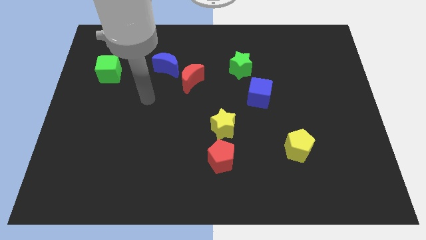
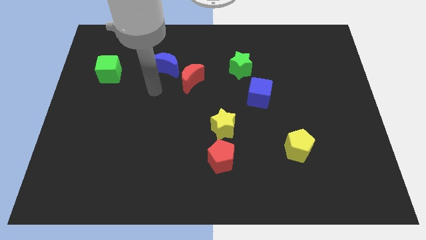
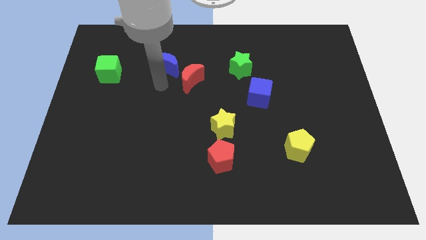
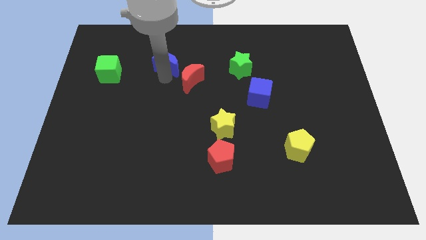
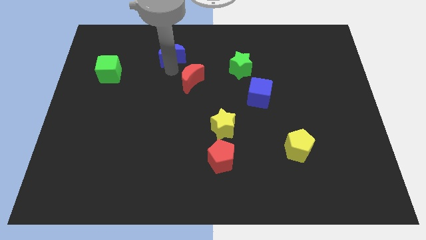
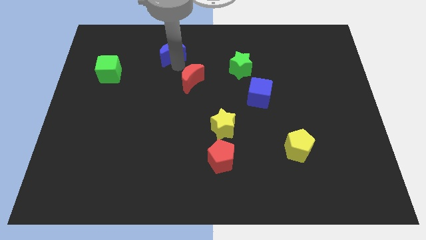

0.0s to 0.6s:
pull the red moon apart from the blue moon

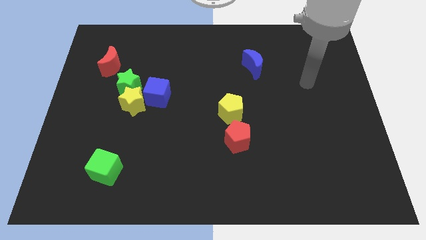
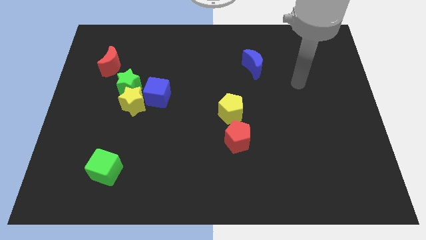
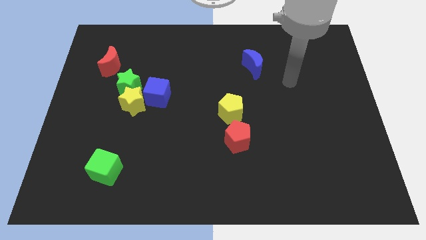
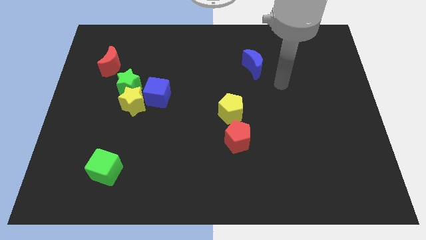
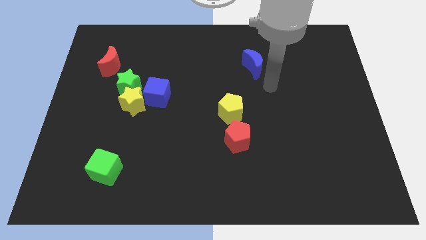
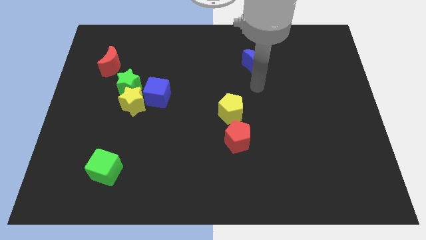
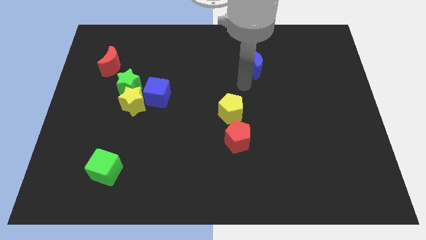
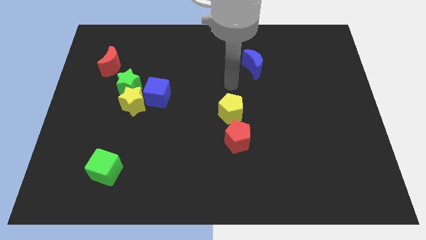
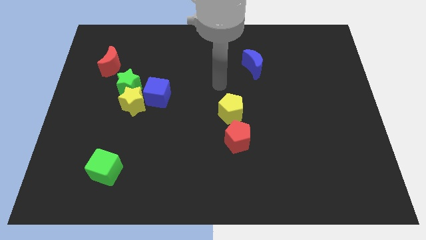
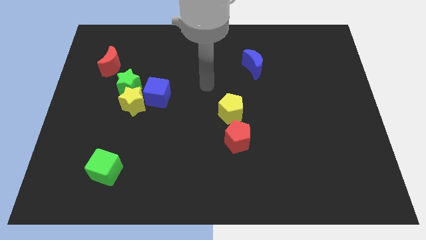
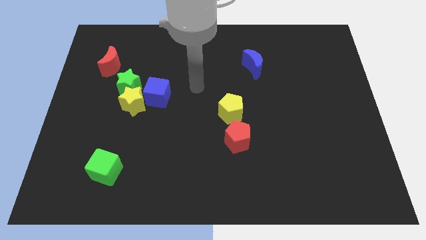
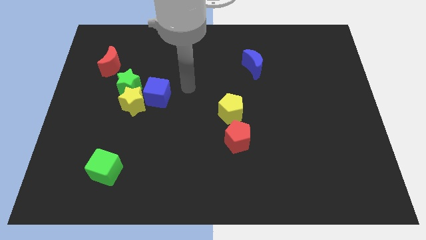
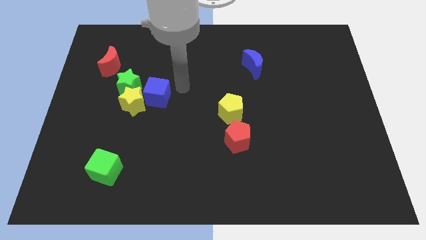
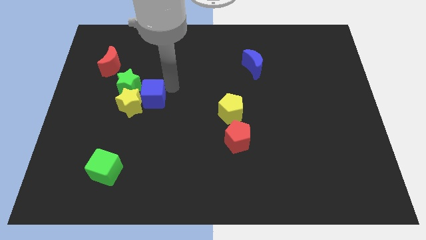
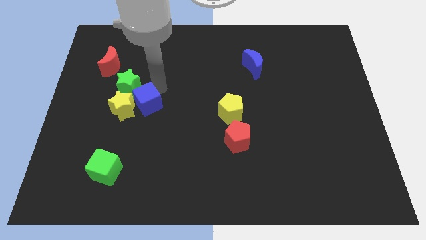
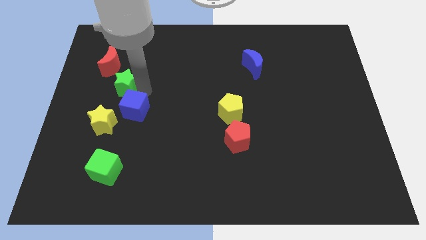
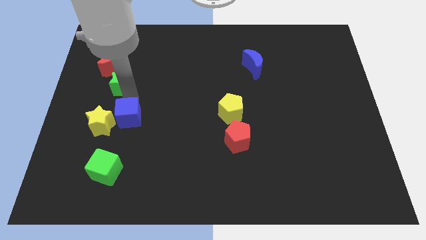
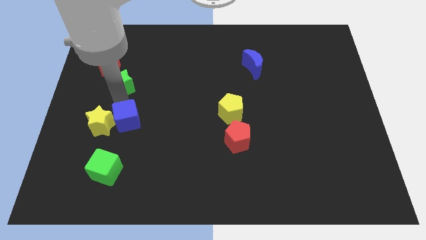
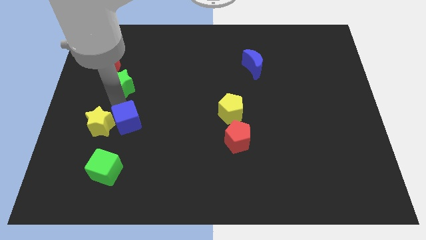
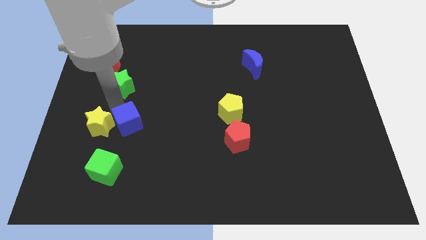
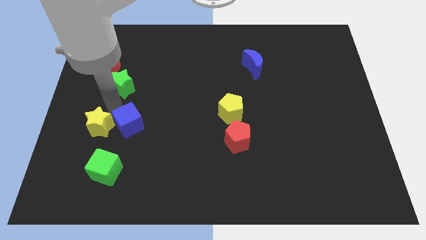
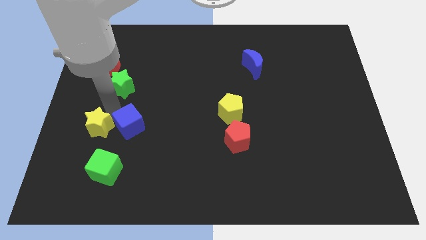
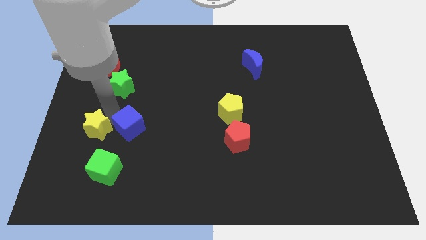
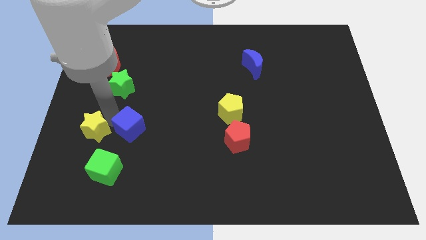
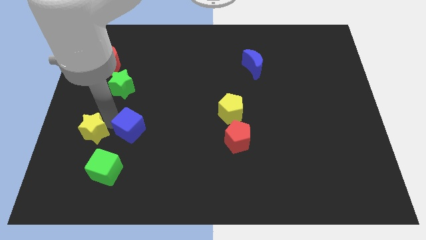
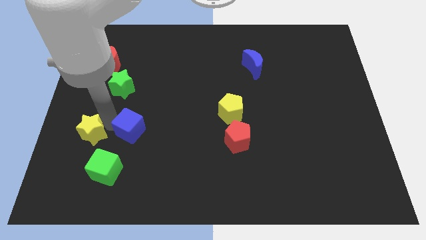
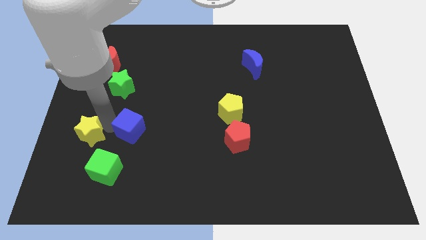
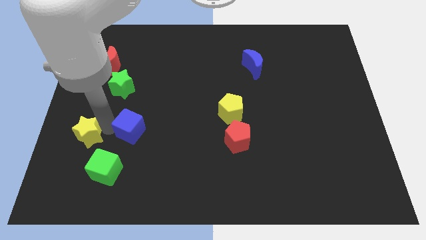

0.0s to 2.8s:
move the yellow star away from the green star and blue cube

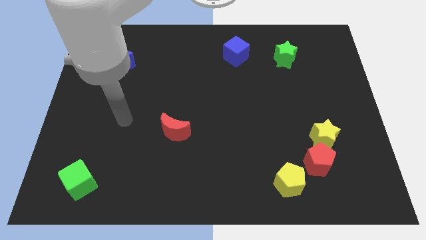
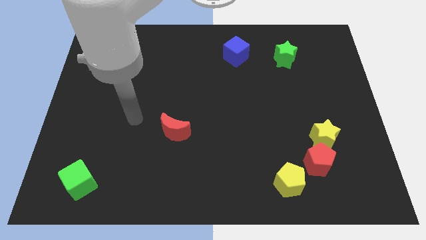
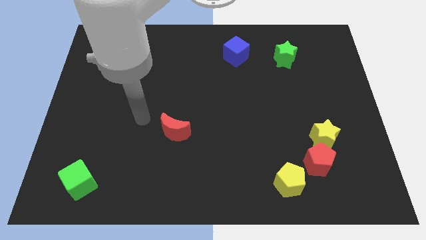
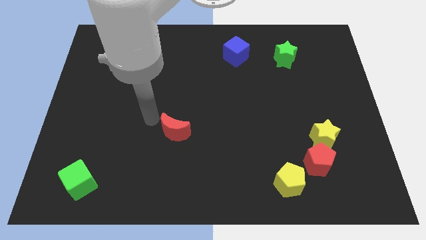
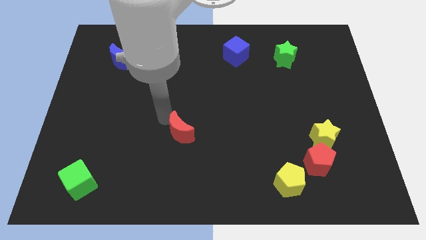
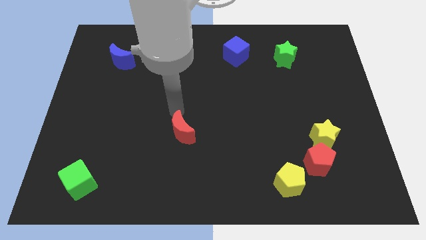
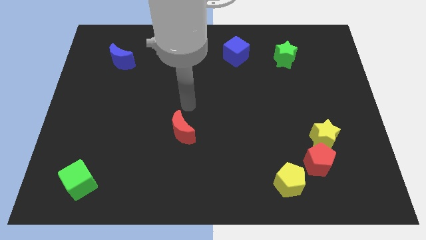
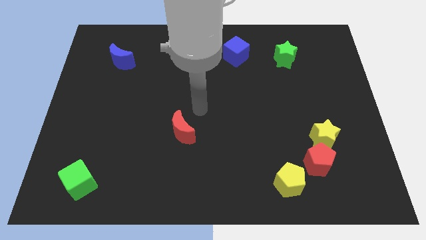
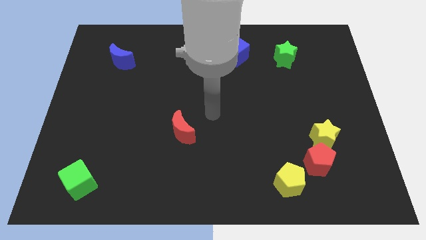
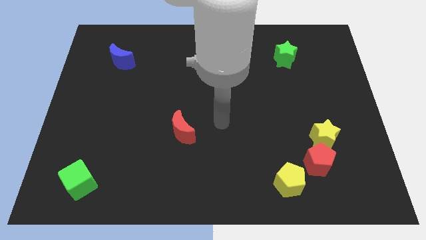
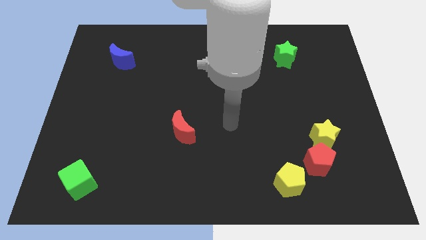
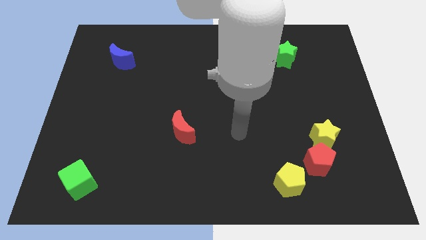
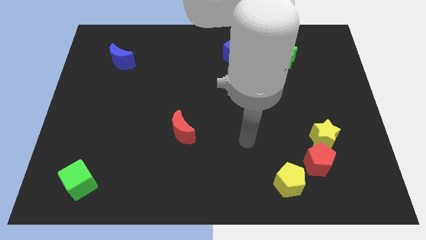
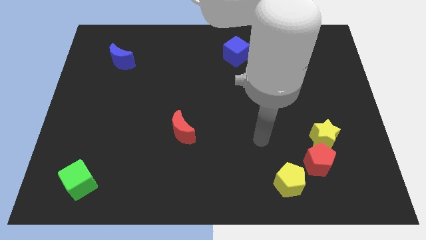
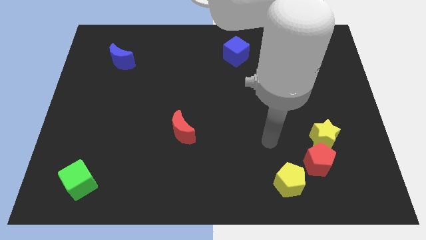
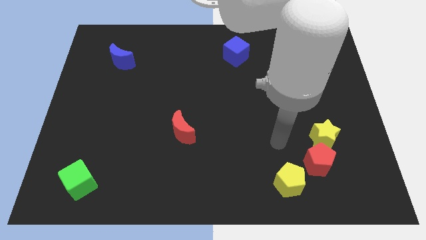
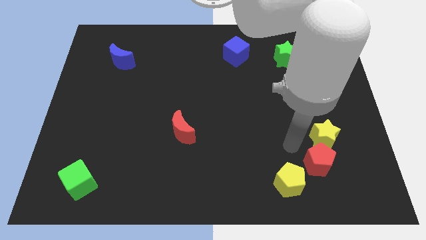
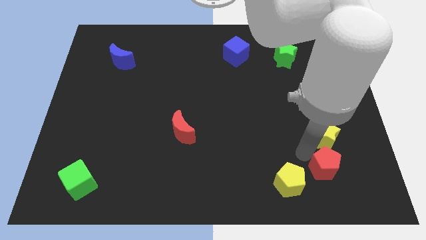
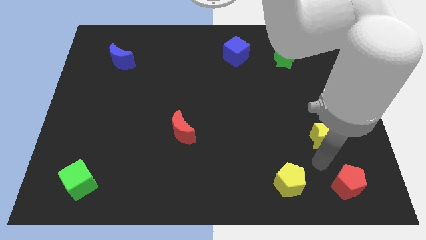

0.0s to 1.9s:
pull the yellow star apart from the red pentagon

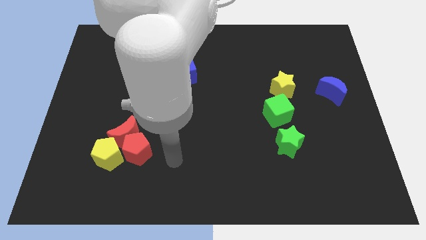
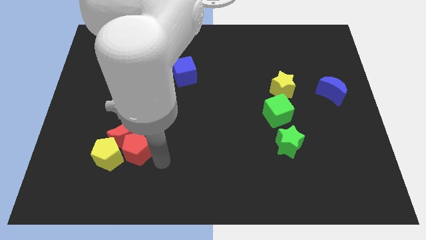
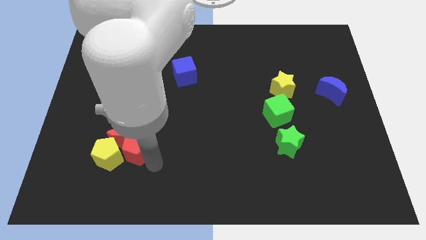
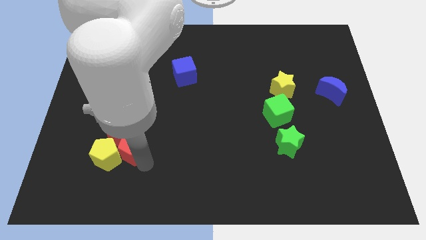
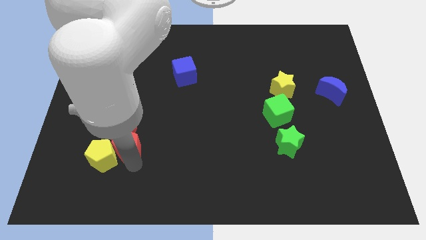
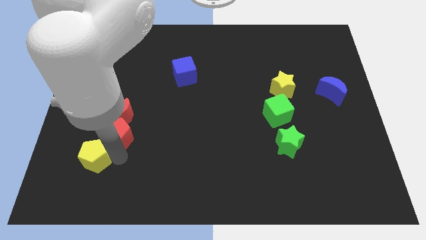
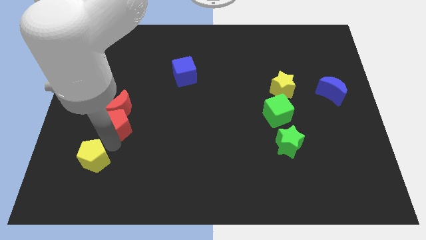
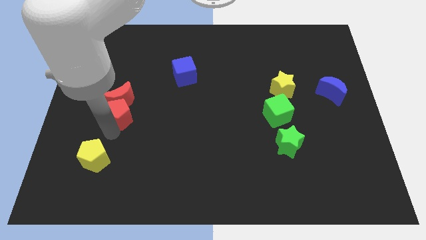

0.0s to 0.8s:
pull the red moon apart from the red pentagon and yellow pentagon

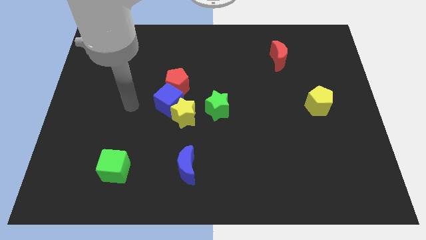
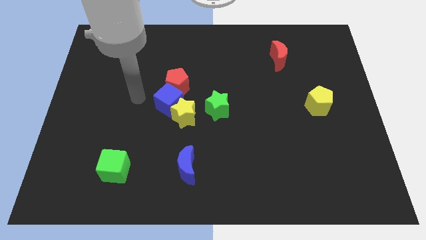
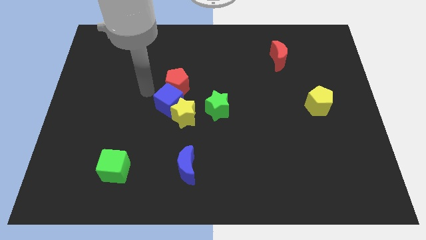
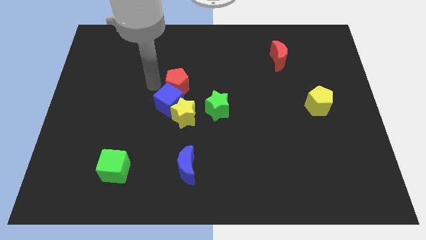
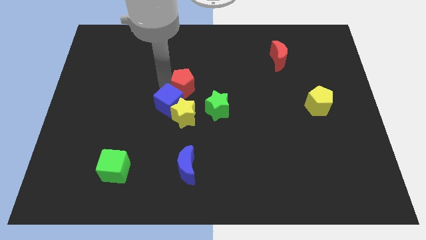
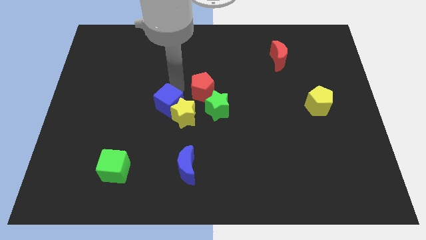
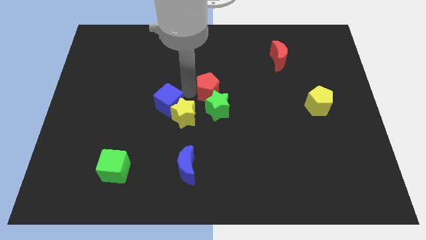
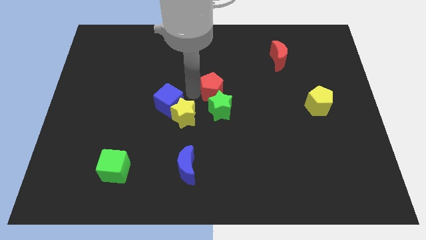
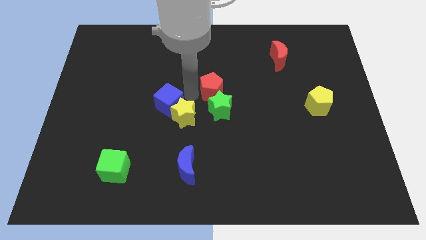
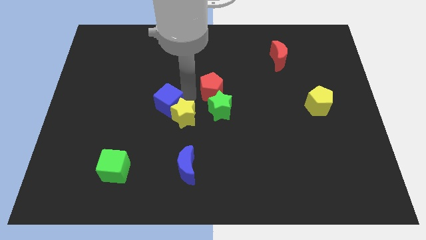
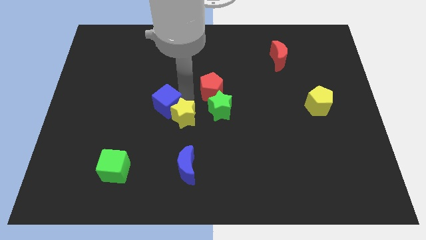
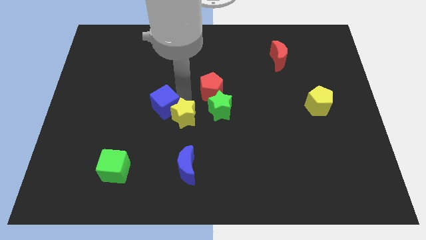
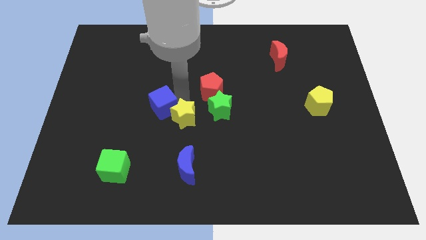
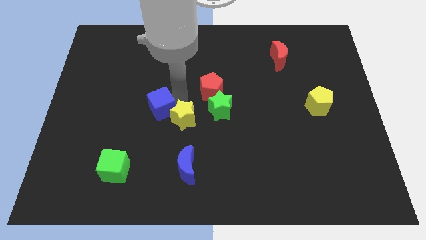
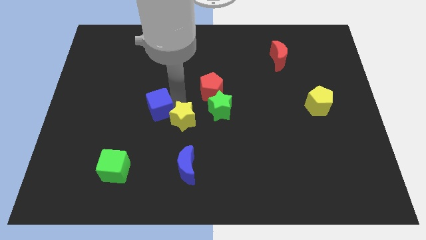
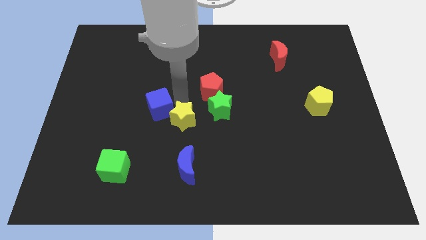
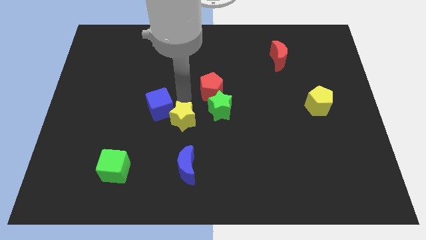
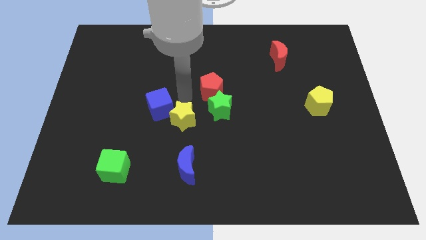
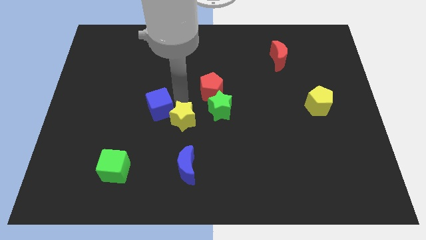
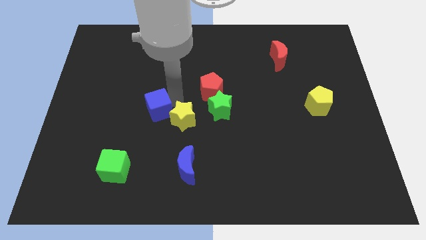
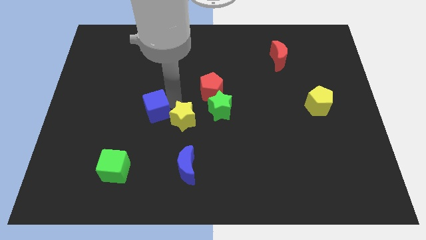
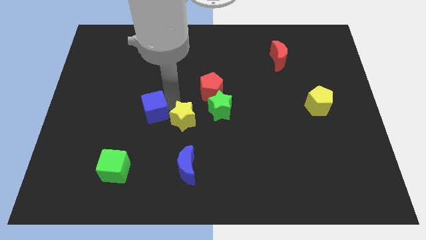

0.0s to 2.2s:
pull the blue cube apart from the yellow star and red pentagon

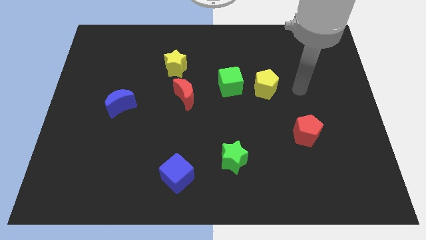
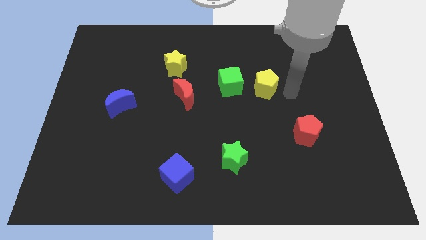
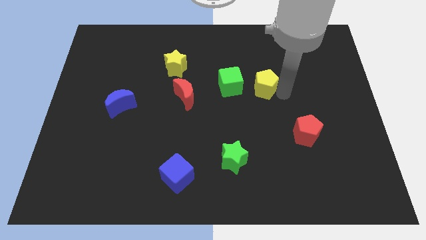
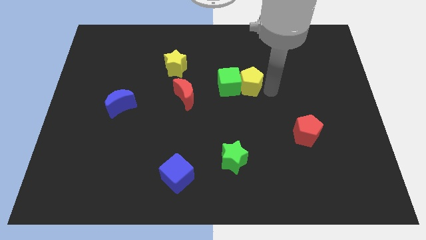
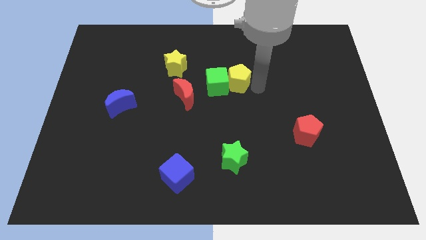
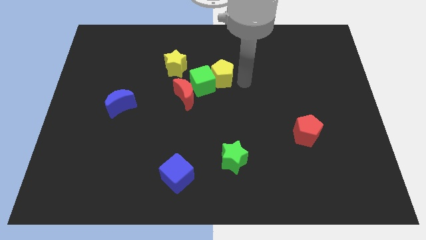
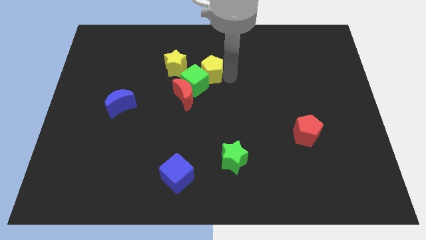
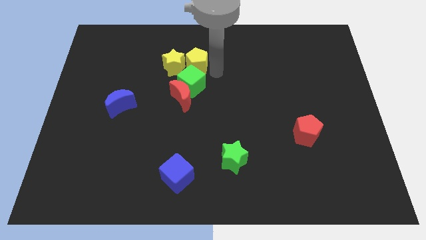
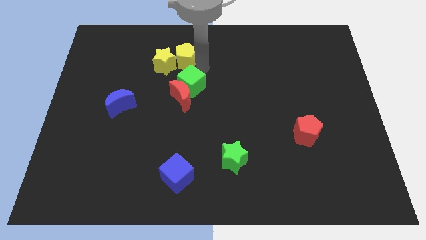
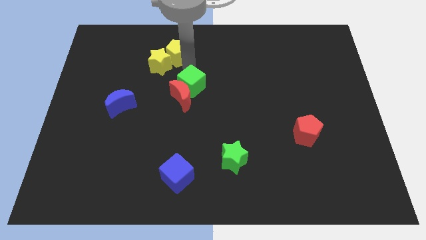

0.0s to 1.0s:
pull the green cube apart from the yellow pentagon
